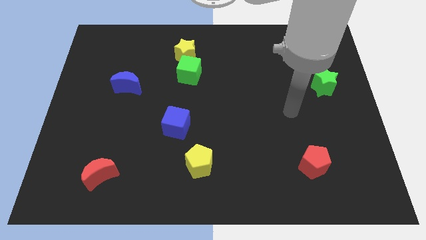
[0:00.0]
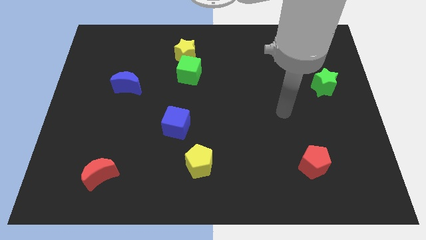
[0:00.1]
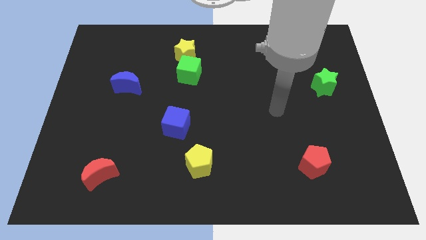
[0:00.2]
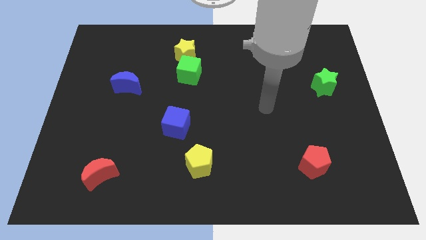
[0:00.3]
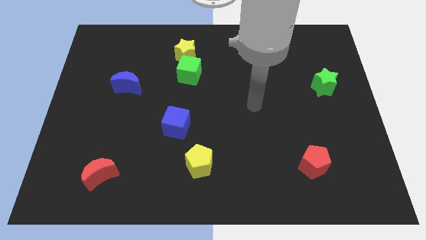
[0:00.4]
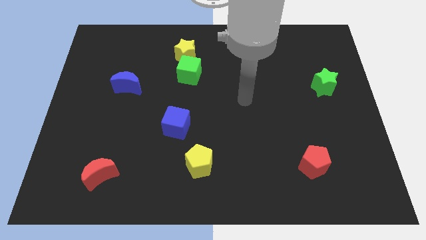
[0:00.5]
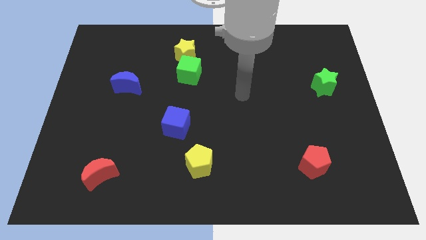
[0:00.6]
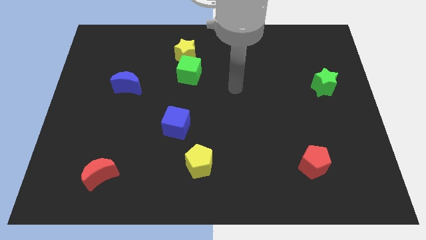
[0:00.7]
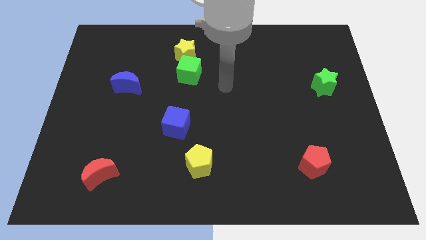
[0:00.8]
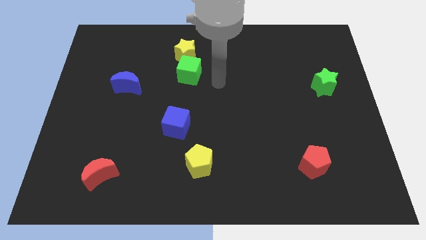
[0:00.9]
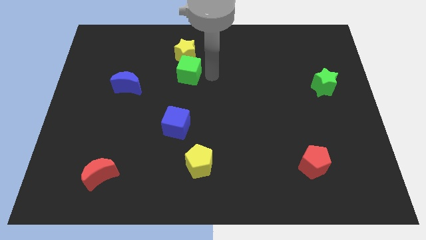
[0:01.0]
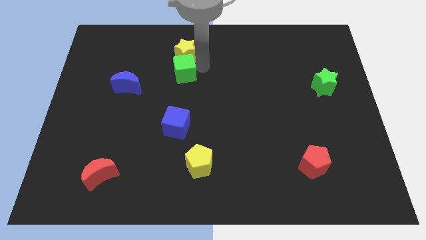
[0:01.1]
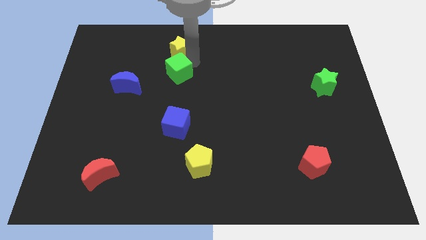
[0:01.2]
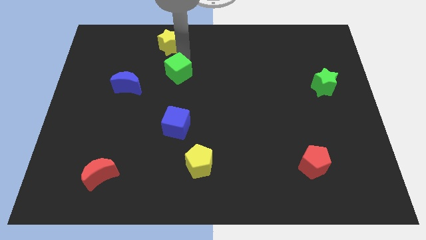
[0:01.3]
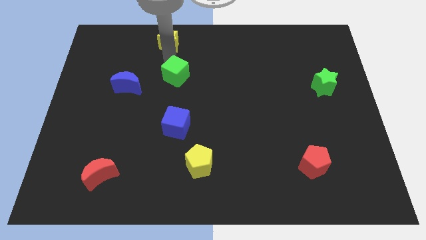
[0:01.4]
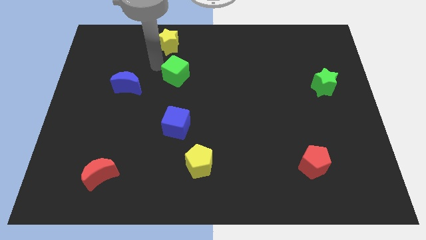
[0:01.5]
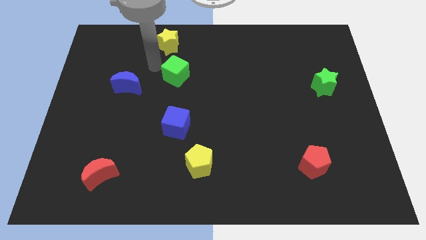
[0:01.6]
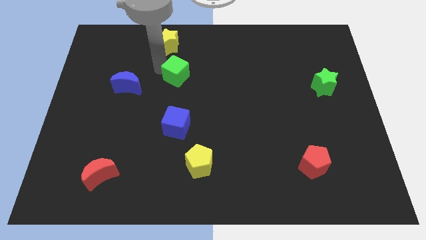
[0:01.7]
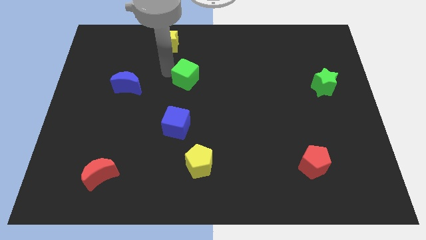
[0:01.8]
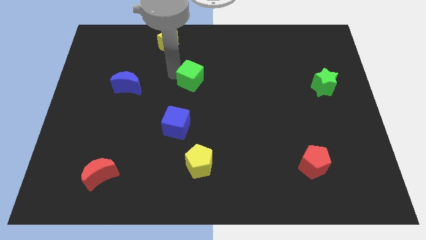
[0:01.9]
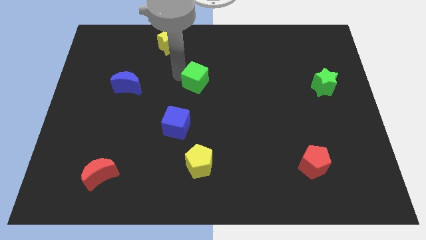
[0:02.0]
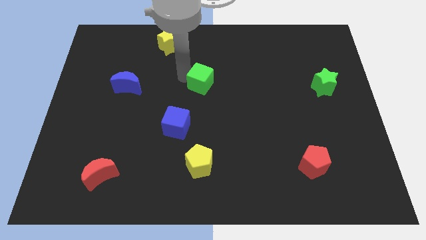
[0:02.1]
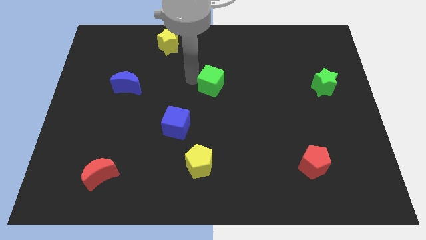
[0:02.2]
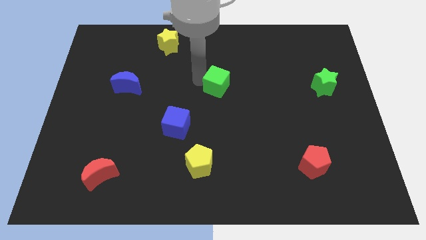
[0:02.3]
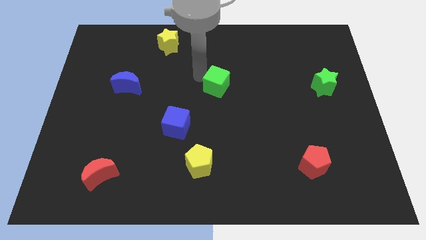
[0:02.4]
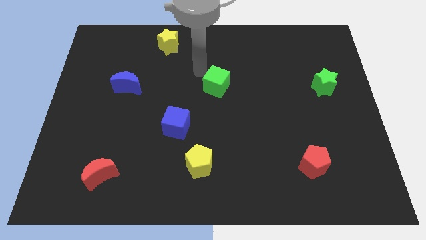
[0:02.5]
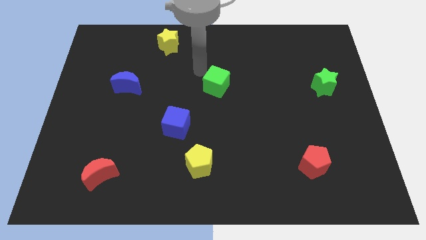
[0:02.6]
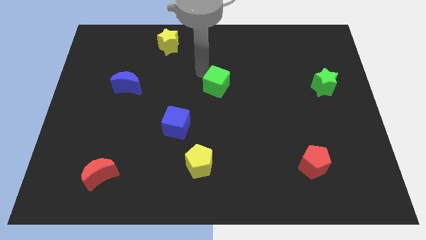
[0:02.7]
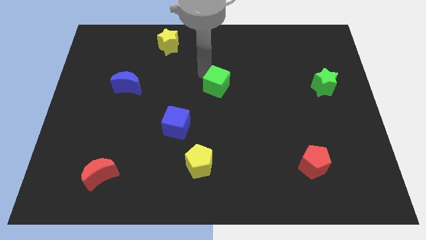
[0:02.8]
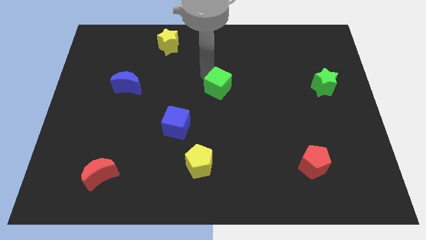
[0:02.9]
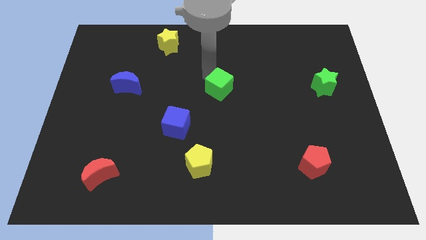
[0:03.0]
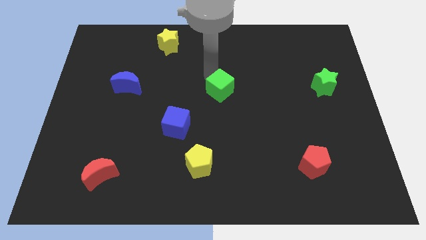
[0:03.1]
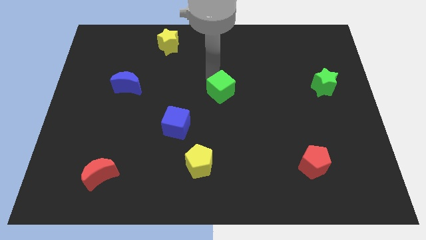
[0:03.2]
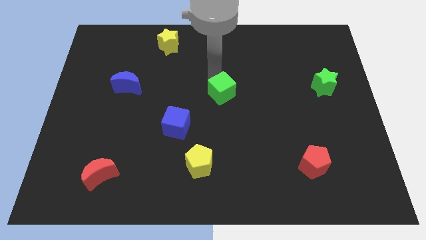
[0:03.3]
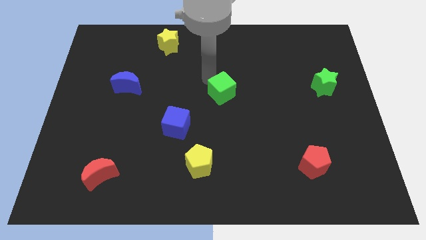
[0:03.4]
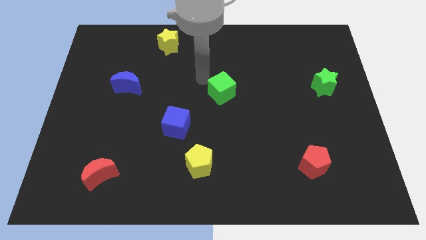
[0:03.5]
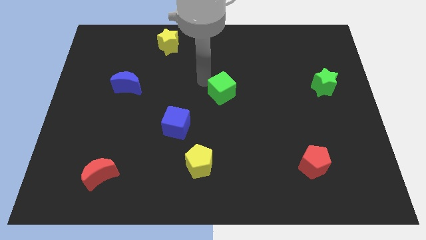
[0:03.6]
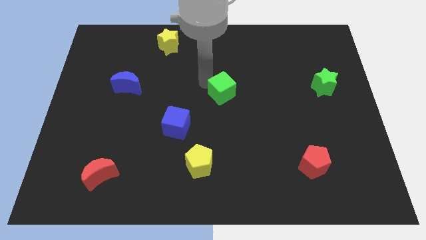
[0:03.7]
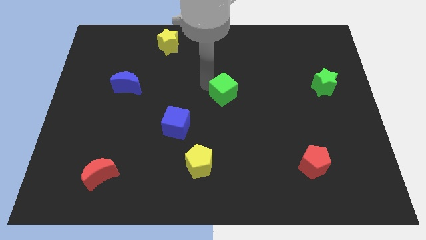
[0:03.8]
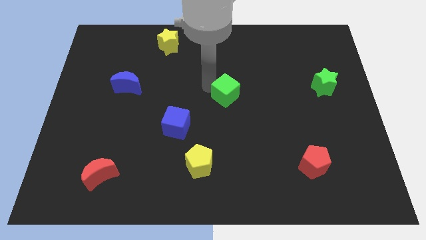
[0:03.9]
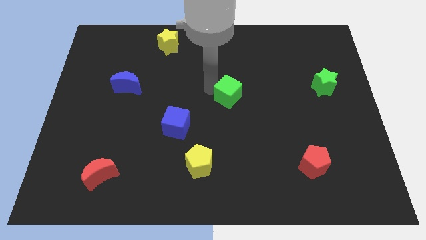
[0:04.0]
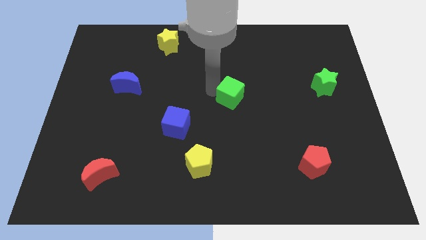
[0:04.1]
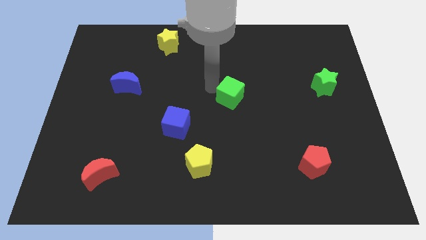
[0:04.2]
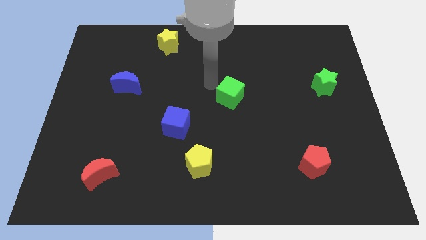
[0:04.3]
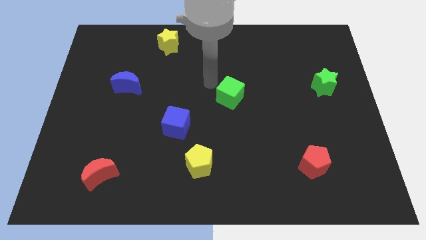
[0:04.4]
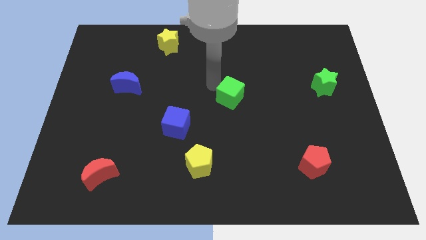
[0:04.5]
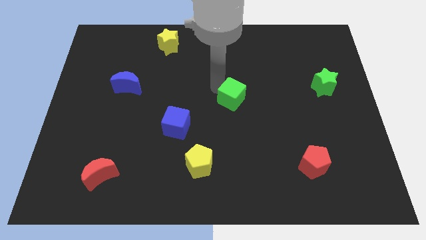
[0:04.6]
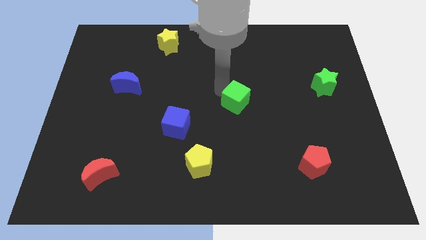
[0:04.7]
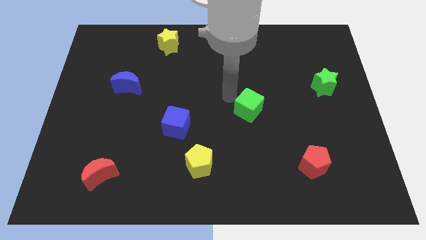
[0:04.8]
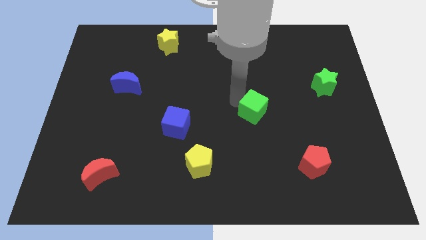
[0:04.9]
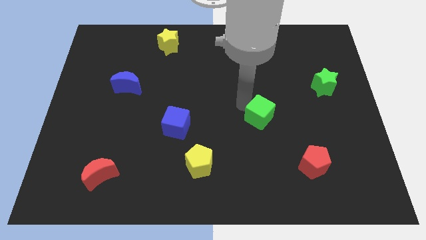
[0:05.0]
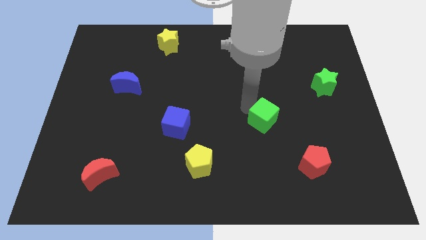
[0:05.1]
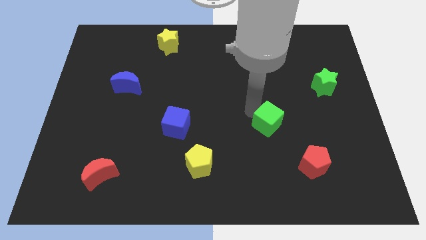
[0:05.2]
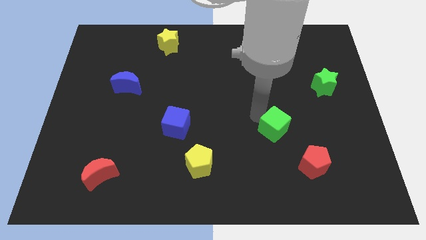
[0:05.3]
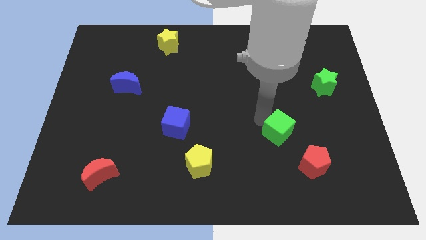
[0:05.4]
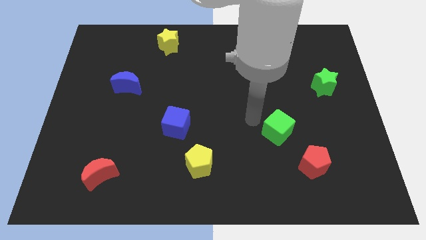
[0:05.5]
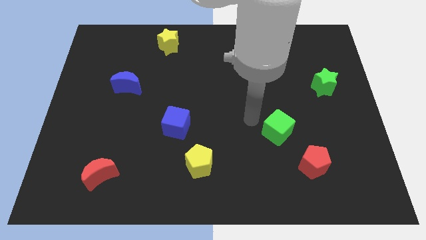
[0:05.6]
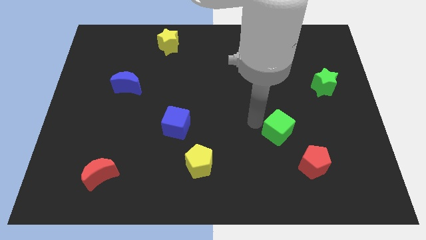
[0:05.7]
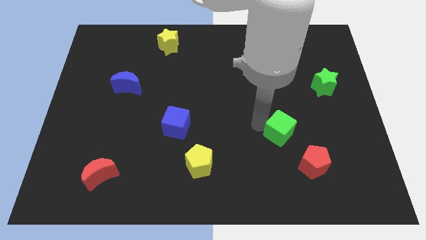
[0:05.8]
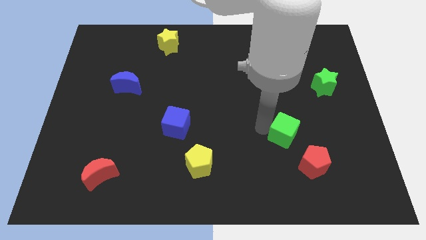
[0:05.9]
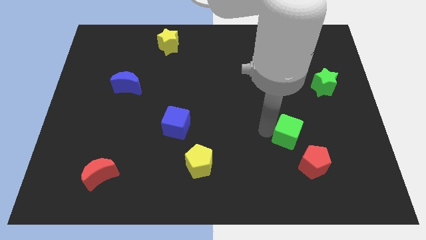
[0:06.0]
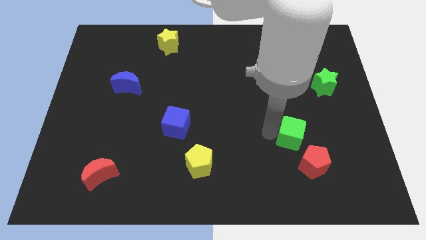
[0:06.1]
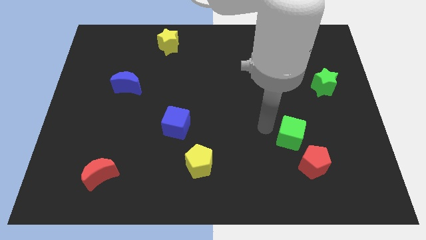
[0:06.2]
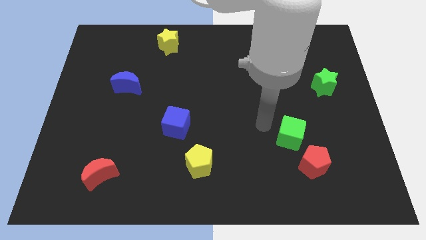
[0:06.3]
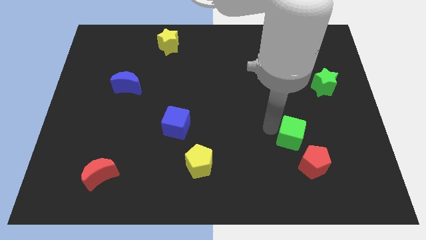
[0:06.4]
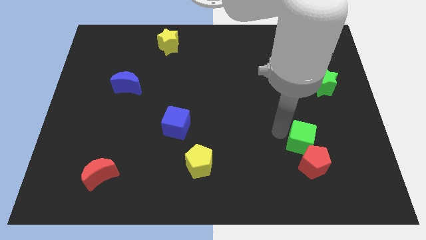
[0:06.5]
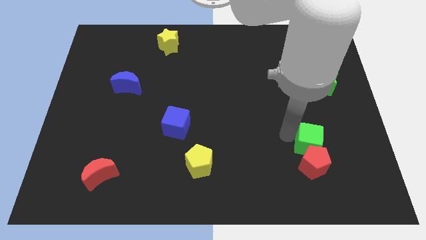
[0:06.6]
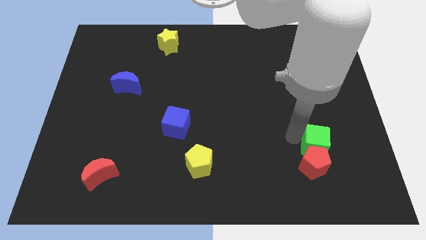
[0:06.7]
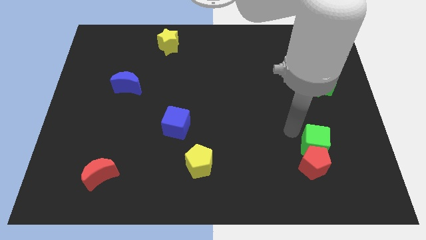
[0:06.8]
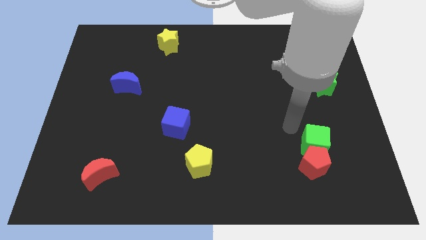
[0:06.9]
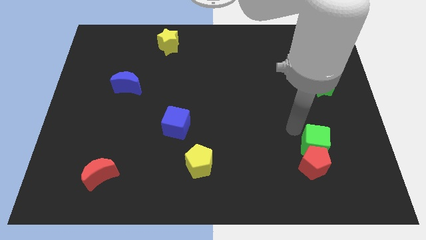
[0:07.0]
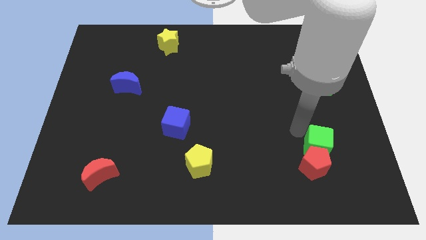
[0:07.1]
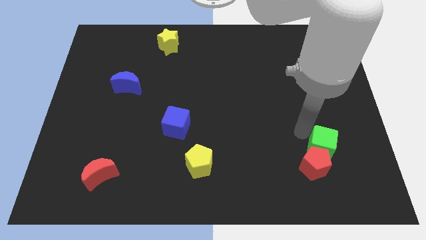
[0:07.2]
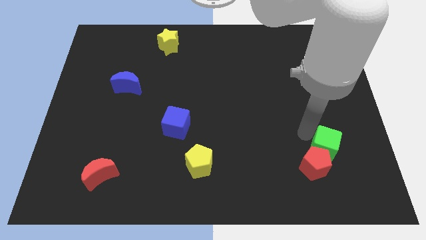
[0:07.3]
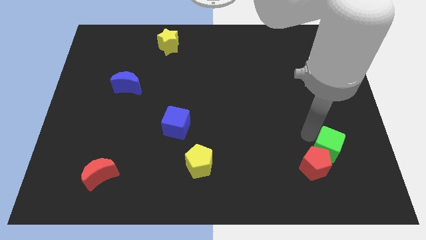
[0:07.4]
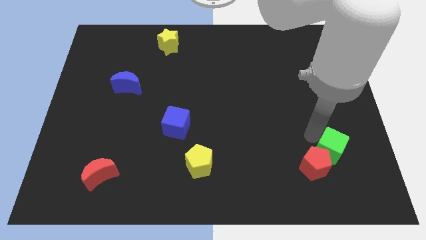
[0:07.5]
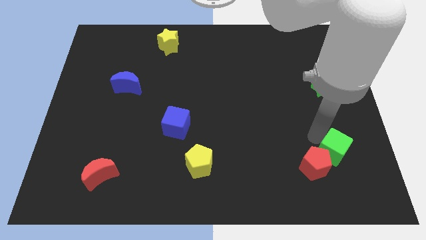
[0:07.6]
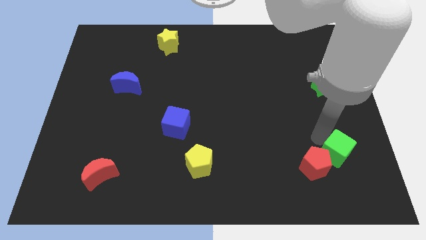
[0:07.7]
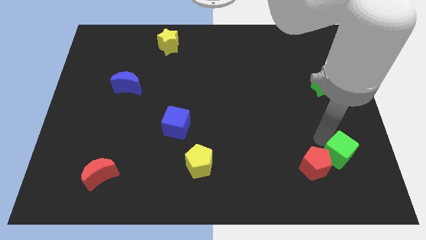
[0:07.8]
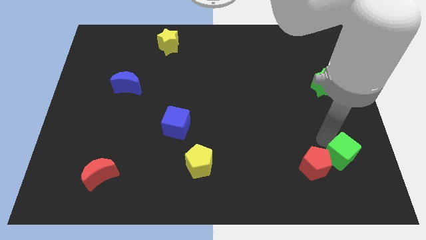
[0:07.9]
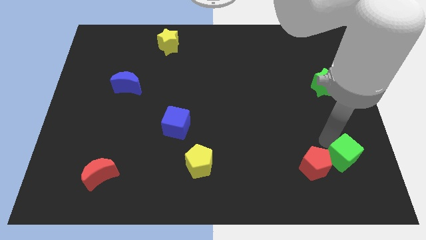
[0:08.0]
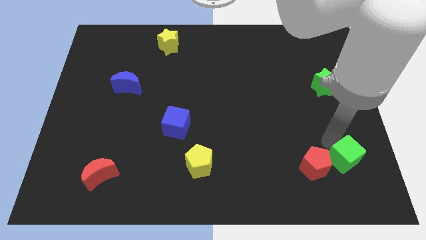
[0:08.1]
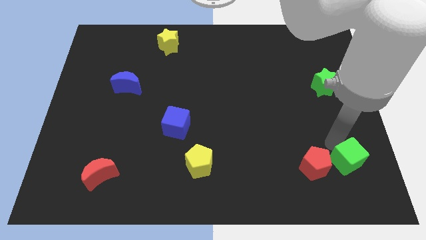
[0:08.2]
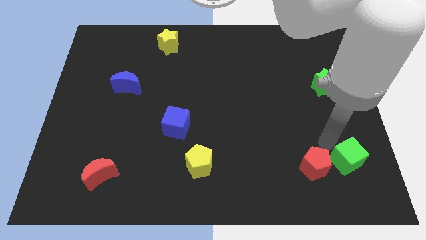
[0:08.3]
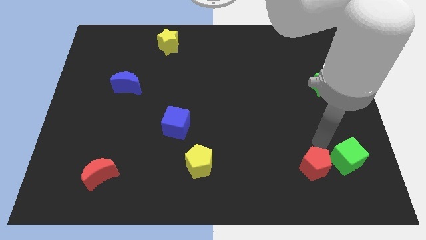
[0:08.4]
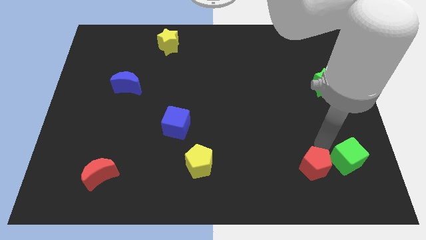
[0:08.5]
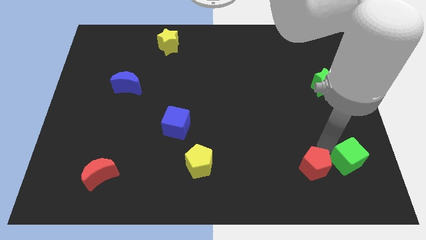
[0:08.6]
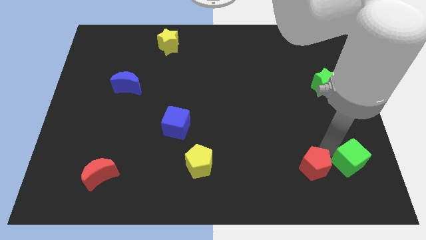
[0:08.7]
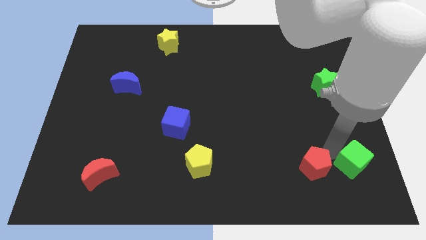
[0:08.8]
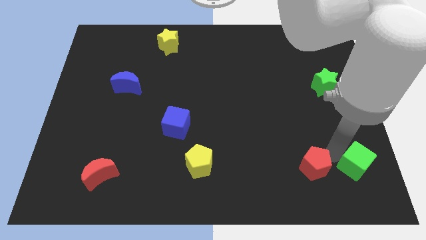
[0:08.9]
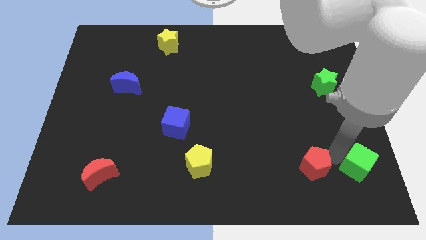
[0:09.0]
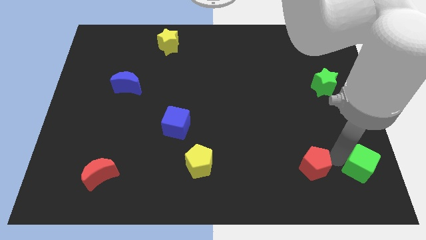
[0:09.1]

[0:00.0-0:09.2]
put the green cube to the bottom right corner
